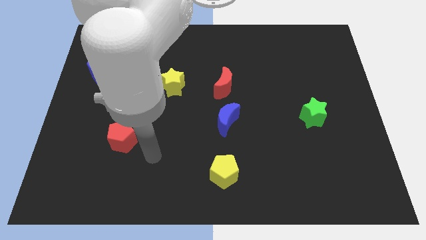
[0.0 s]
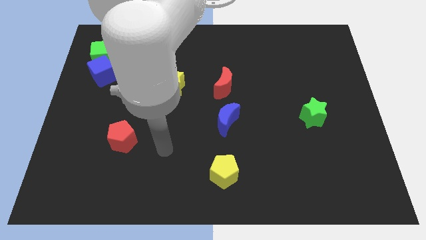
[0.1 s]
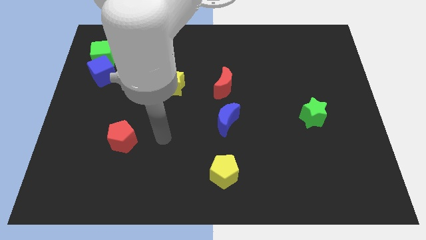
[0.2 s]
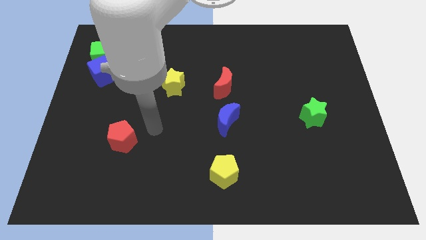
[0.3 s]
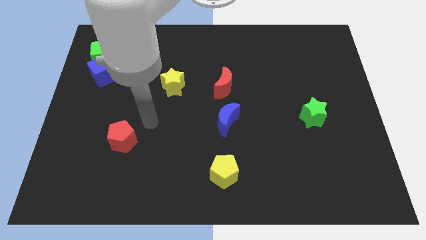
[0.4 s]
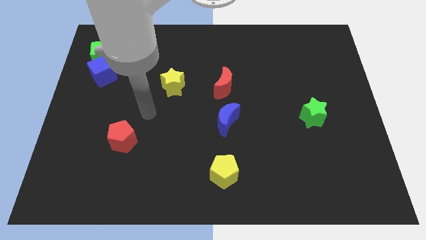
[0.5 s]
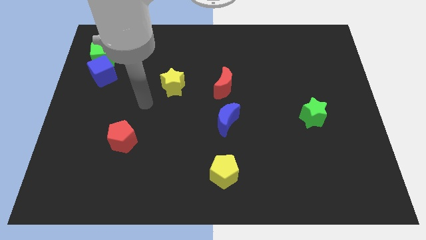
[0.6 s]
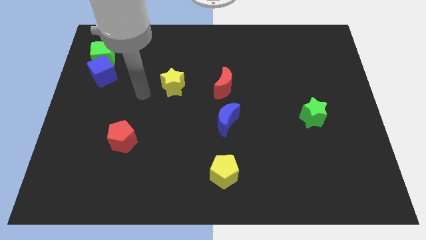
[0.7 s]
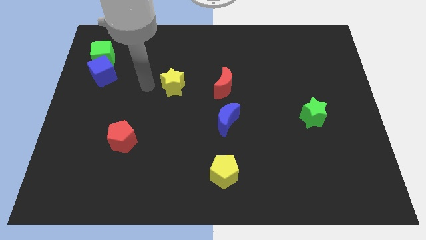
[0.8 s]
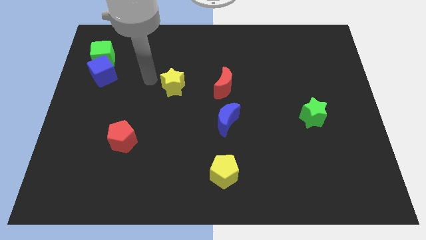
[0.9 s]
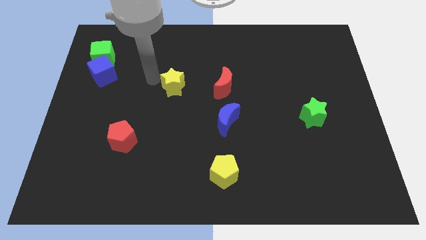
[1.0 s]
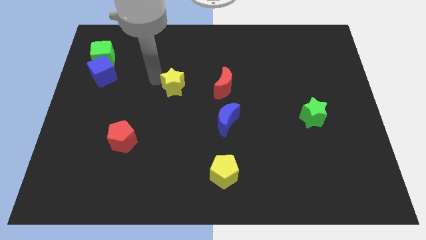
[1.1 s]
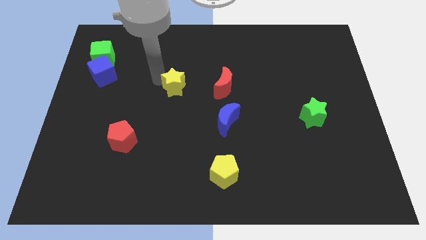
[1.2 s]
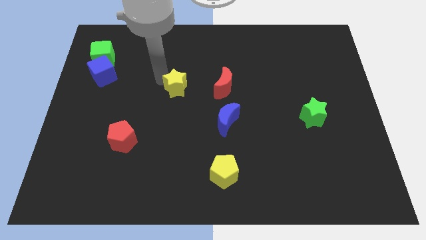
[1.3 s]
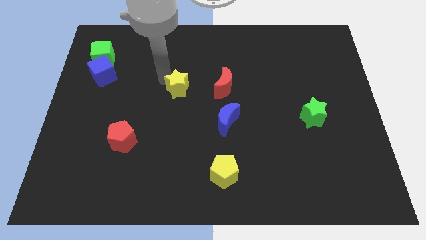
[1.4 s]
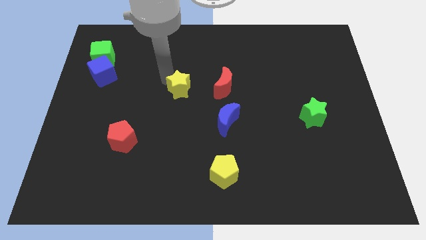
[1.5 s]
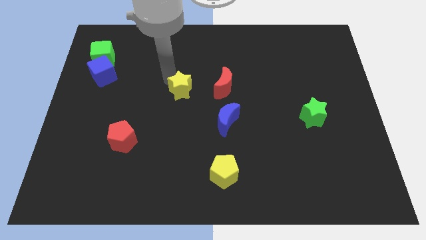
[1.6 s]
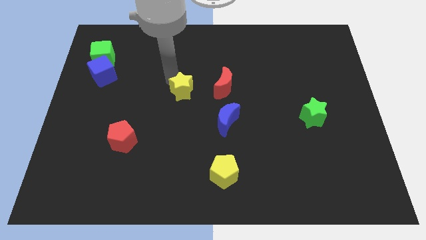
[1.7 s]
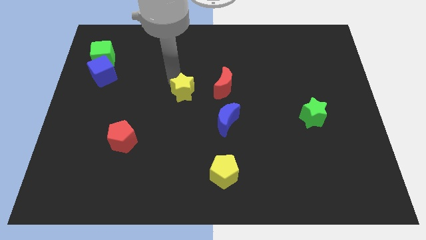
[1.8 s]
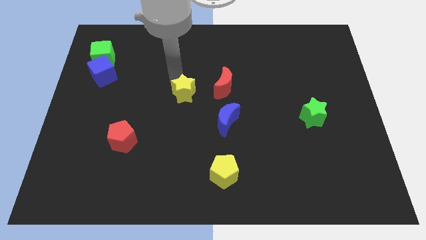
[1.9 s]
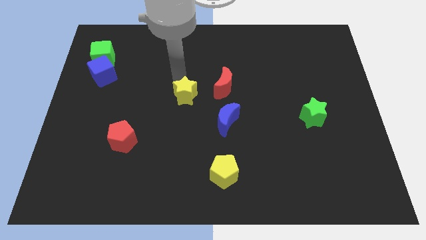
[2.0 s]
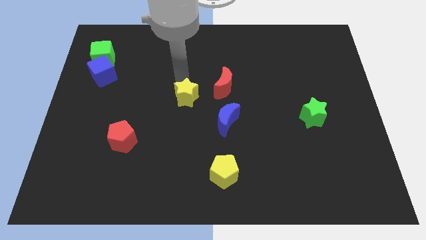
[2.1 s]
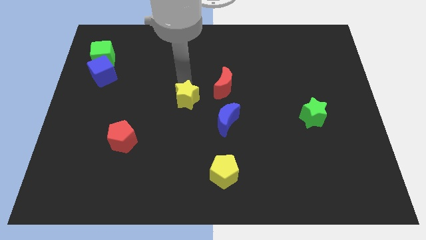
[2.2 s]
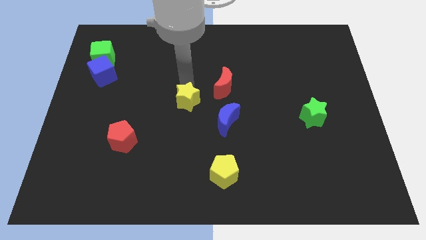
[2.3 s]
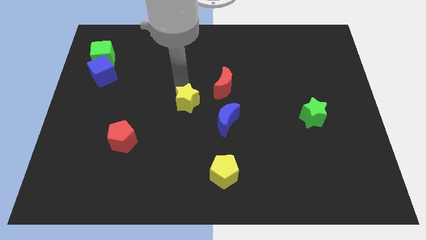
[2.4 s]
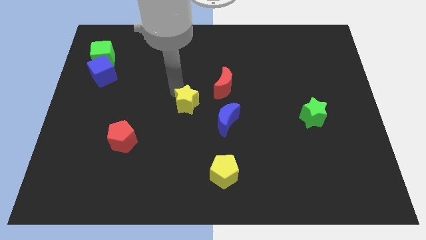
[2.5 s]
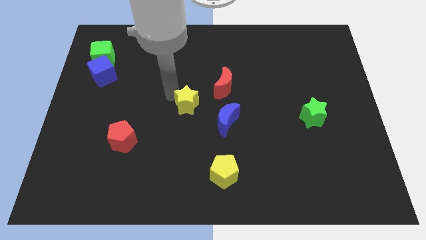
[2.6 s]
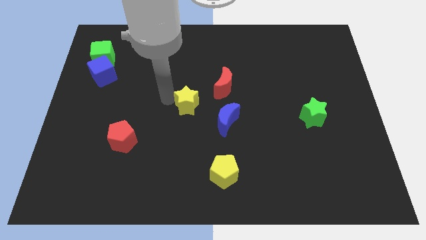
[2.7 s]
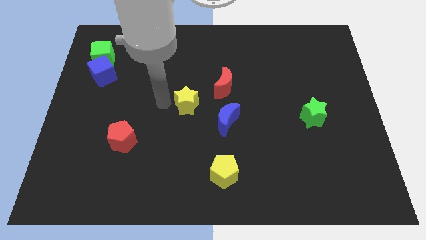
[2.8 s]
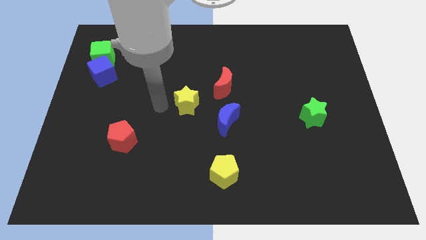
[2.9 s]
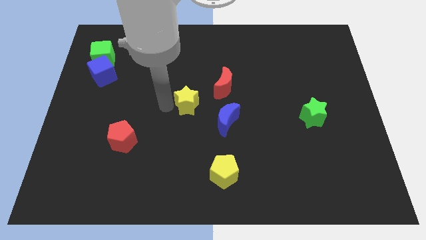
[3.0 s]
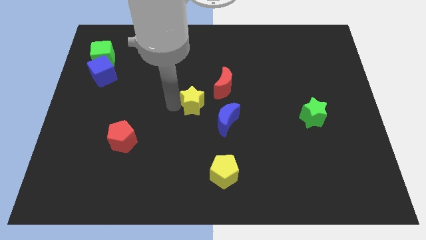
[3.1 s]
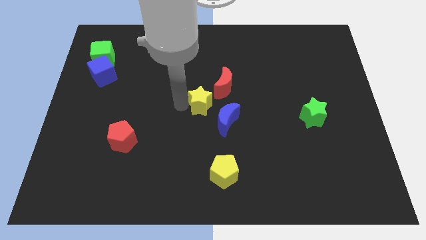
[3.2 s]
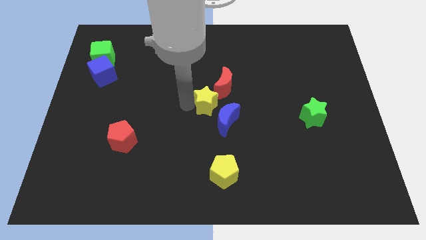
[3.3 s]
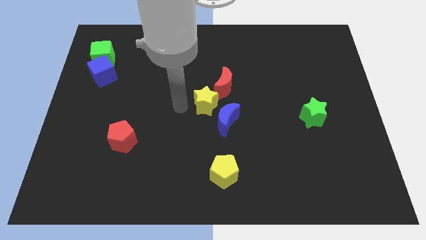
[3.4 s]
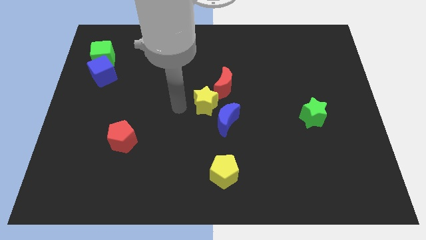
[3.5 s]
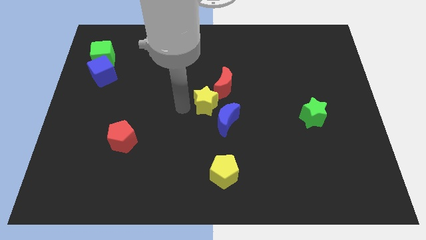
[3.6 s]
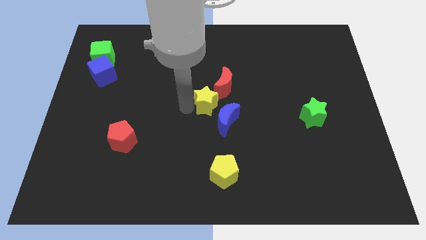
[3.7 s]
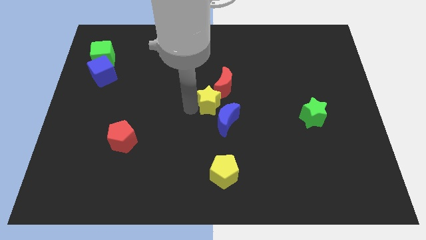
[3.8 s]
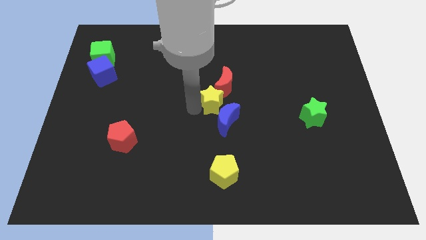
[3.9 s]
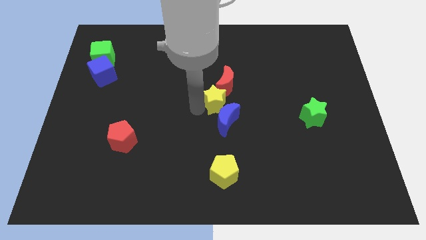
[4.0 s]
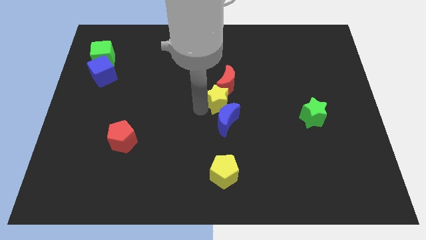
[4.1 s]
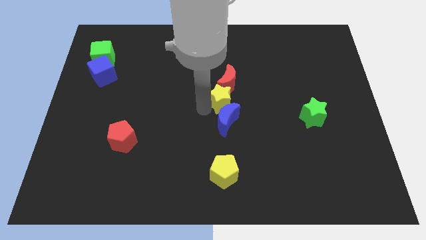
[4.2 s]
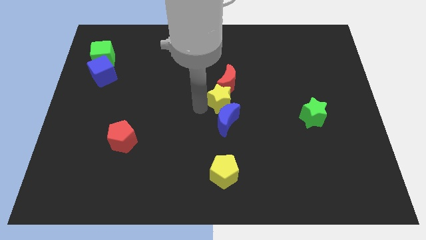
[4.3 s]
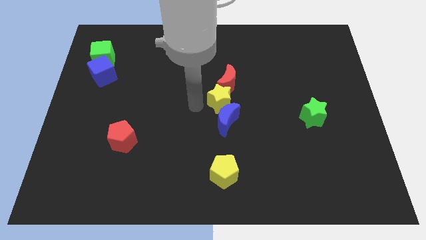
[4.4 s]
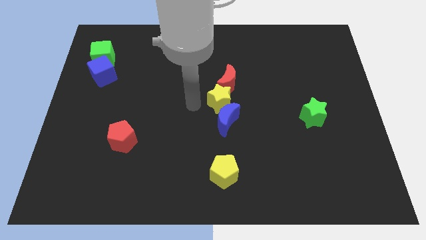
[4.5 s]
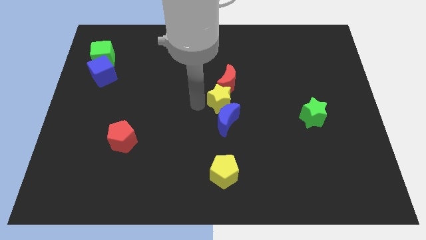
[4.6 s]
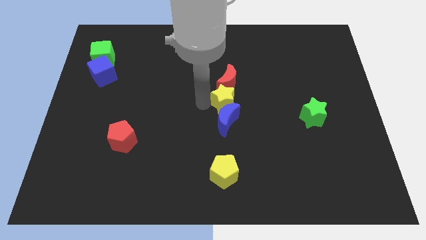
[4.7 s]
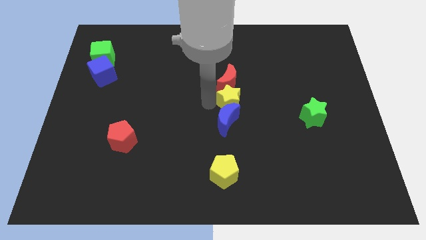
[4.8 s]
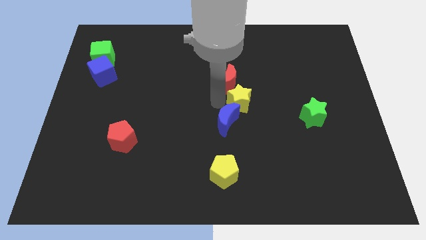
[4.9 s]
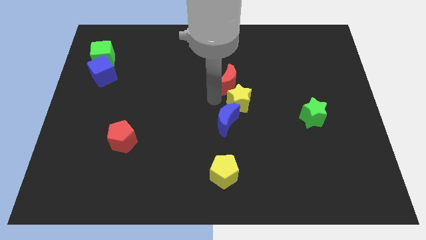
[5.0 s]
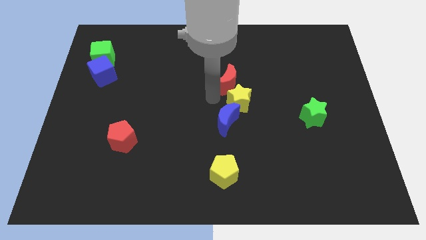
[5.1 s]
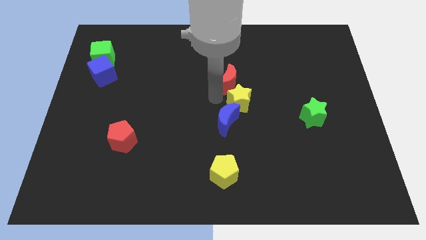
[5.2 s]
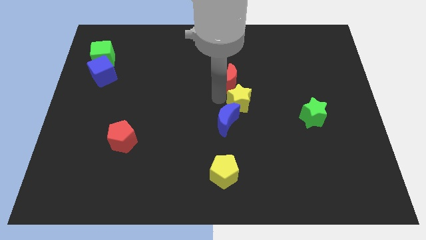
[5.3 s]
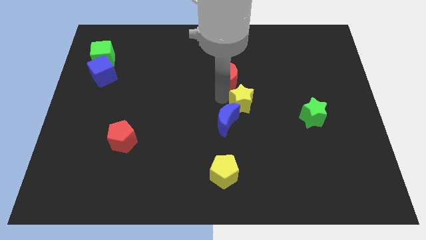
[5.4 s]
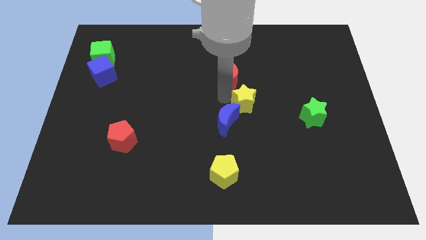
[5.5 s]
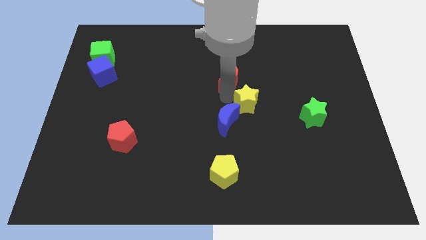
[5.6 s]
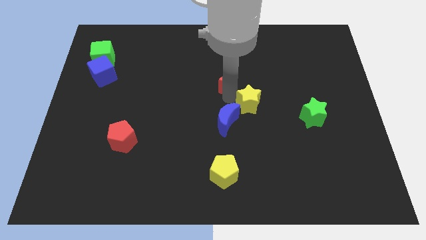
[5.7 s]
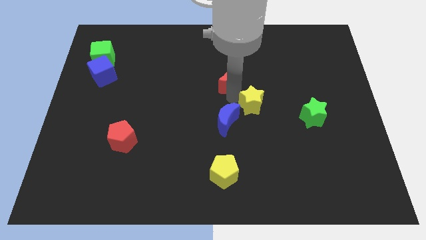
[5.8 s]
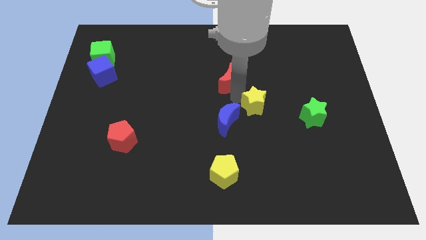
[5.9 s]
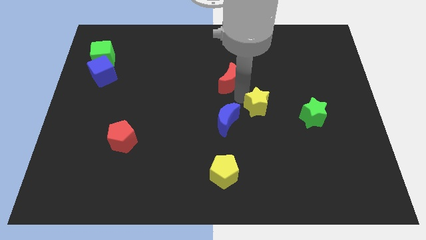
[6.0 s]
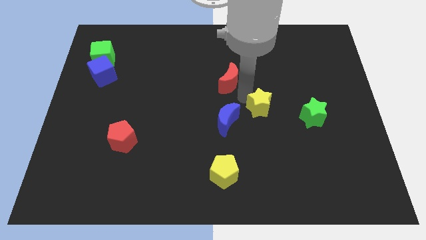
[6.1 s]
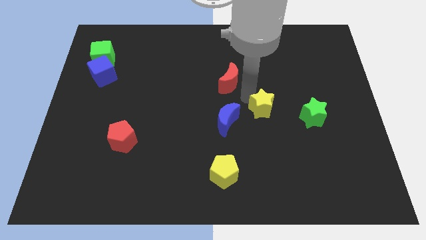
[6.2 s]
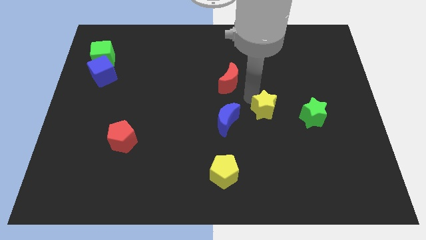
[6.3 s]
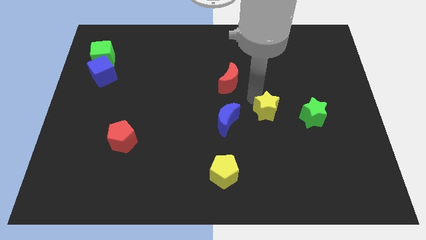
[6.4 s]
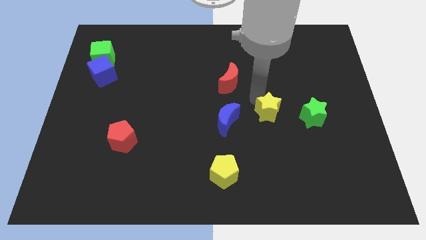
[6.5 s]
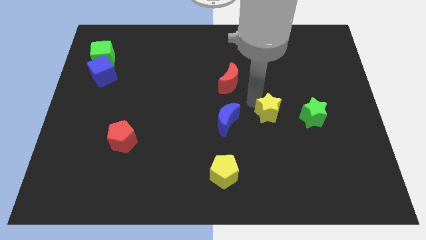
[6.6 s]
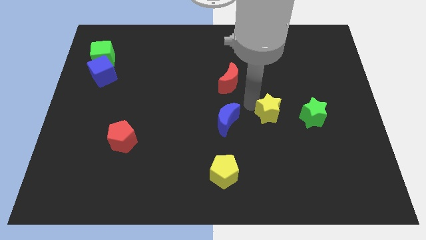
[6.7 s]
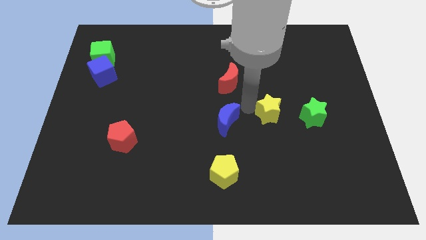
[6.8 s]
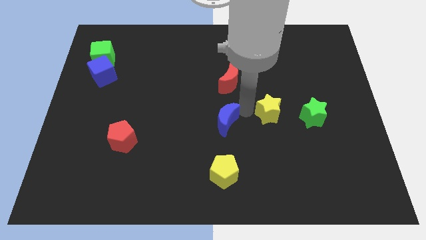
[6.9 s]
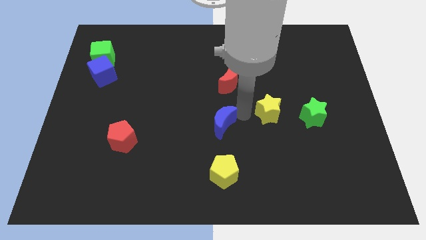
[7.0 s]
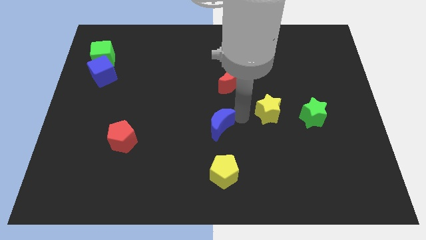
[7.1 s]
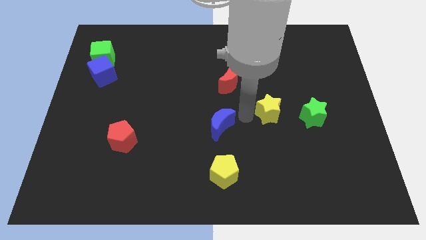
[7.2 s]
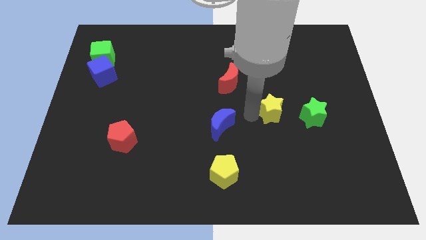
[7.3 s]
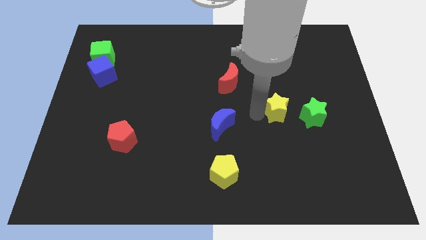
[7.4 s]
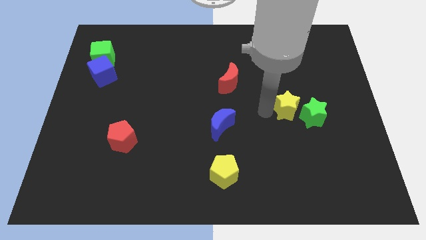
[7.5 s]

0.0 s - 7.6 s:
push the yellow star to the green star
